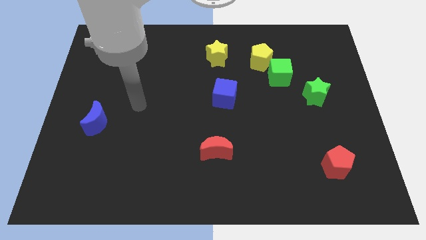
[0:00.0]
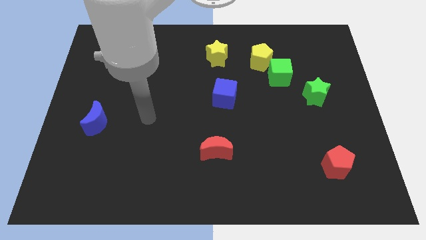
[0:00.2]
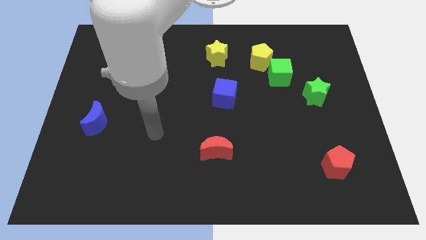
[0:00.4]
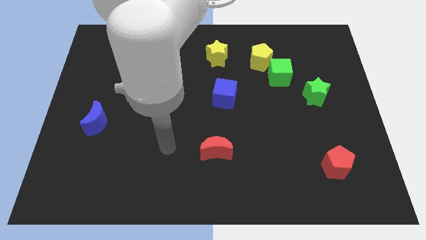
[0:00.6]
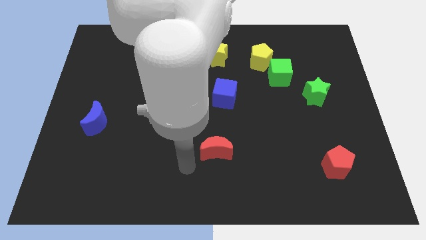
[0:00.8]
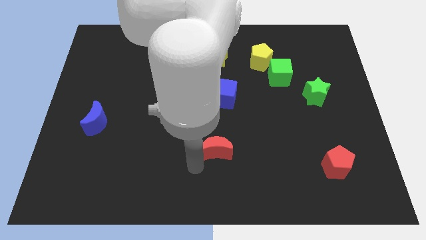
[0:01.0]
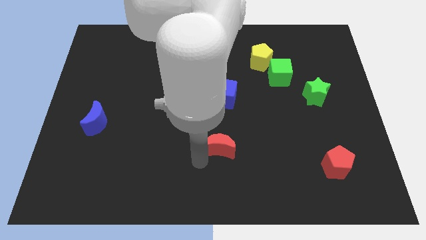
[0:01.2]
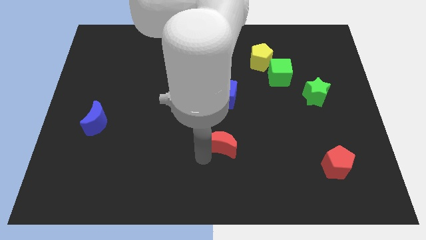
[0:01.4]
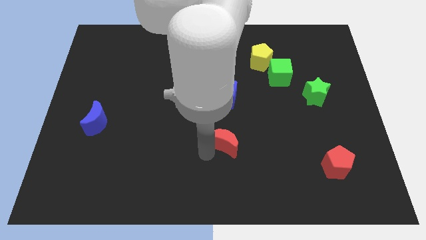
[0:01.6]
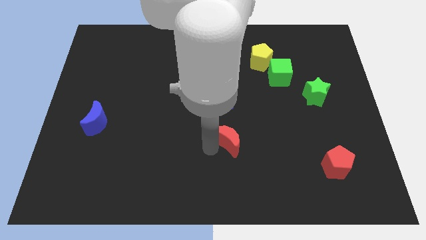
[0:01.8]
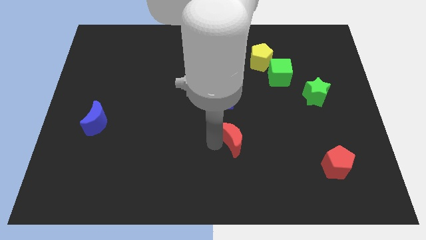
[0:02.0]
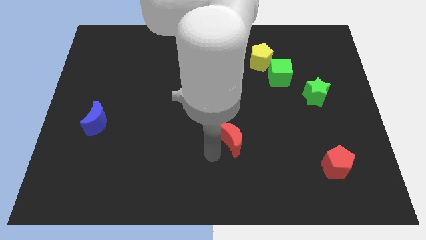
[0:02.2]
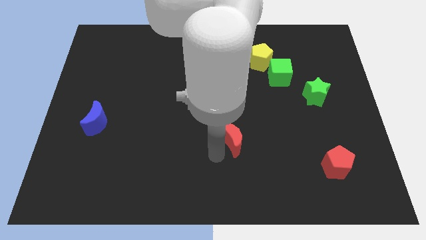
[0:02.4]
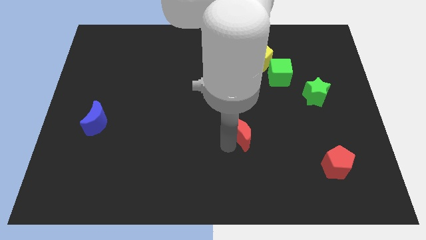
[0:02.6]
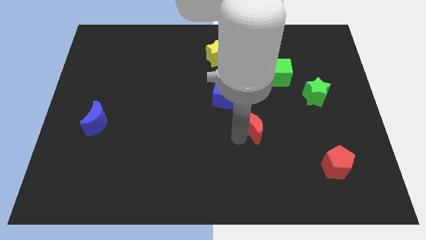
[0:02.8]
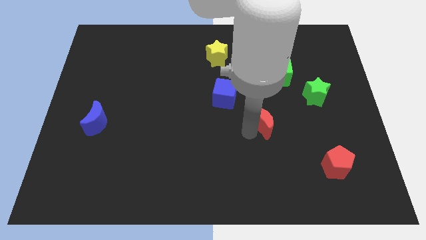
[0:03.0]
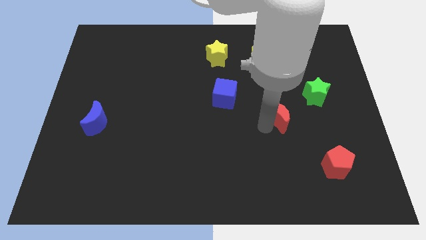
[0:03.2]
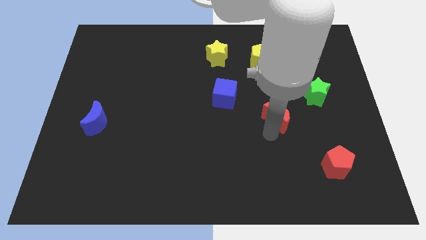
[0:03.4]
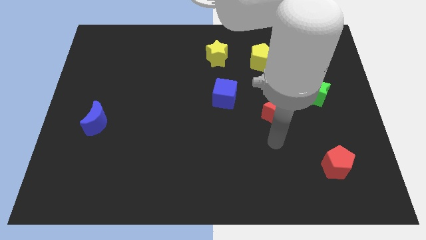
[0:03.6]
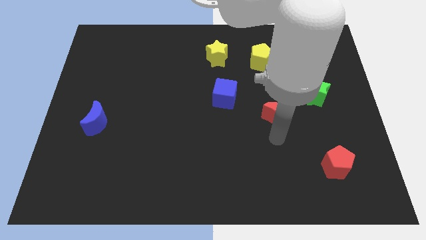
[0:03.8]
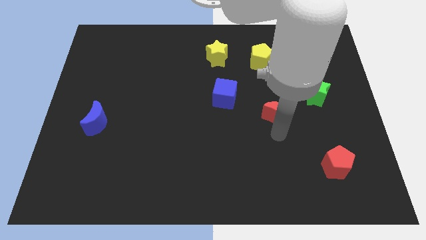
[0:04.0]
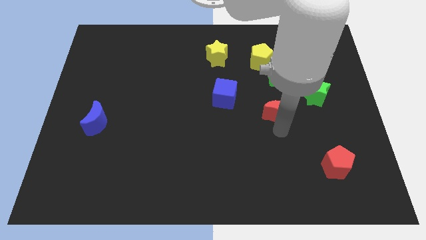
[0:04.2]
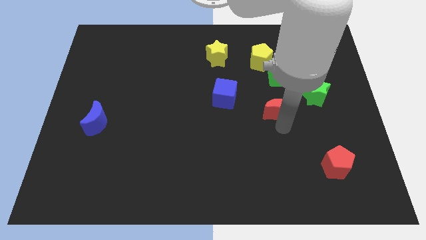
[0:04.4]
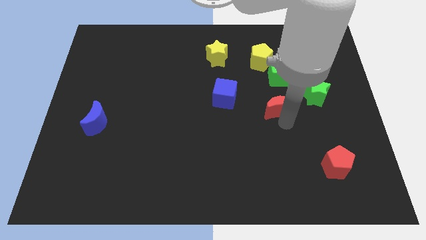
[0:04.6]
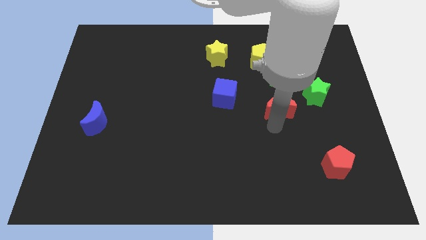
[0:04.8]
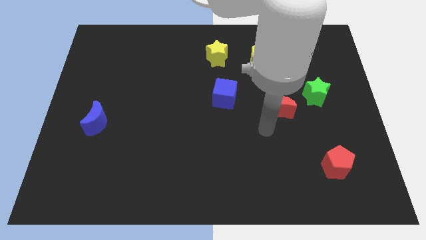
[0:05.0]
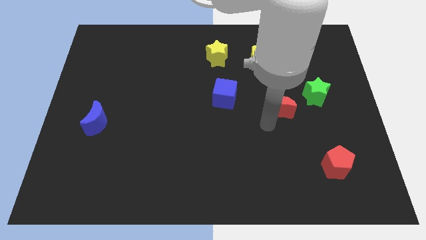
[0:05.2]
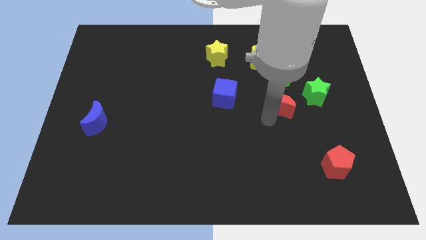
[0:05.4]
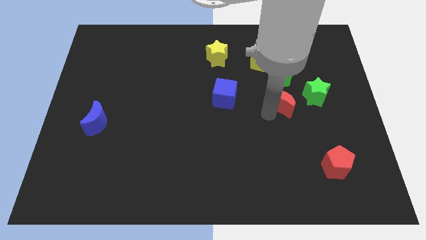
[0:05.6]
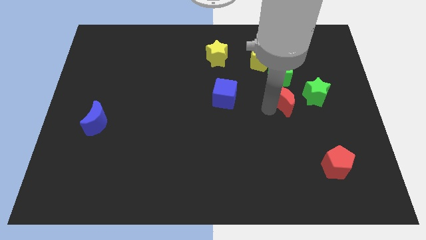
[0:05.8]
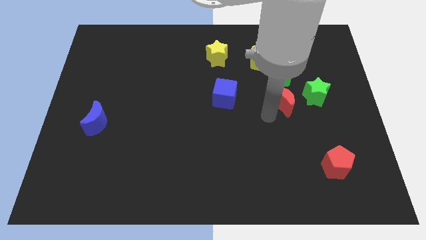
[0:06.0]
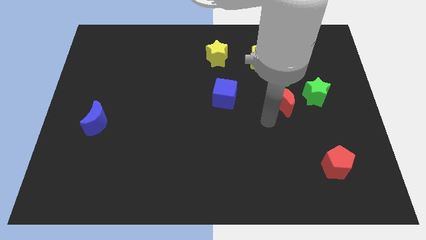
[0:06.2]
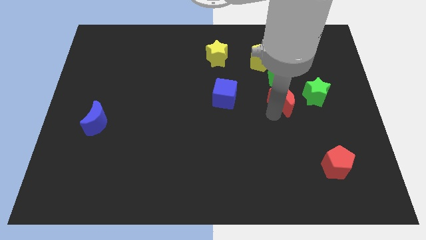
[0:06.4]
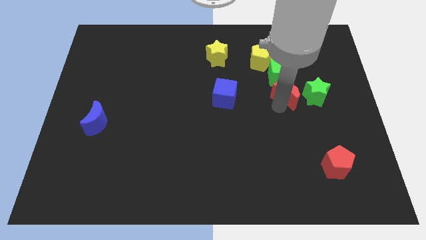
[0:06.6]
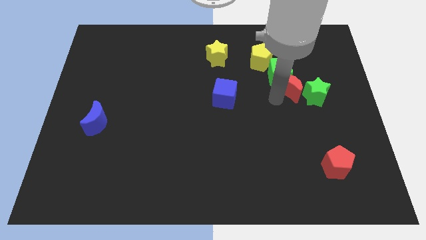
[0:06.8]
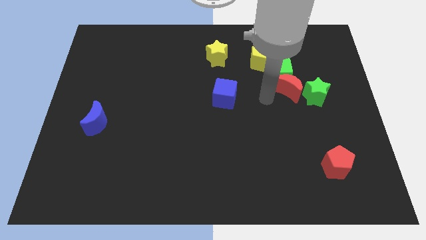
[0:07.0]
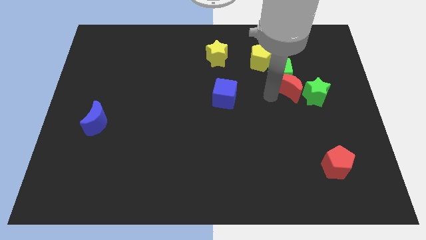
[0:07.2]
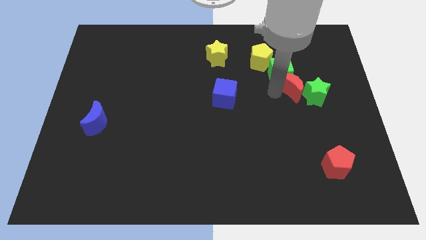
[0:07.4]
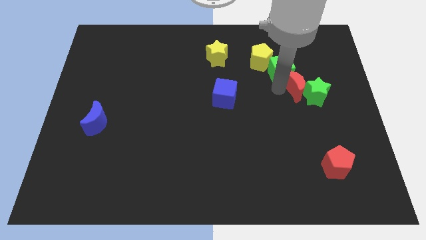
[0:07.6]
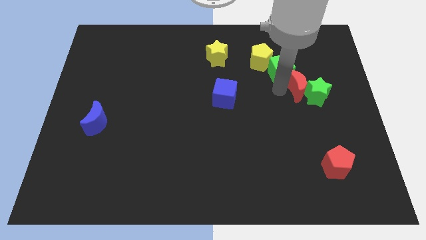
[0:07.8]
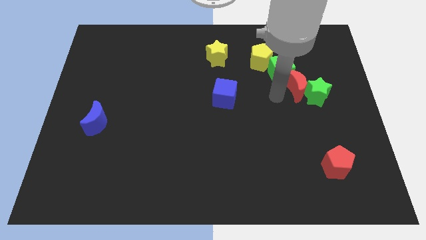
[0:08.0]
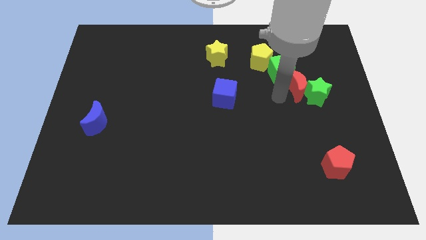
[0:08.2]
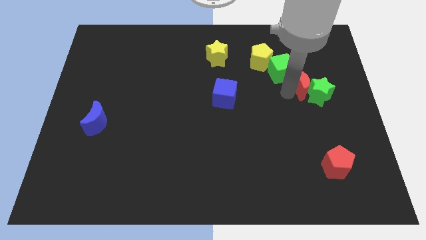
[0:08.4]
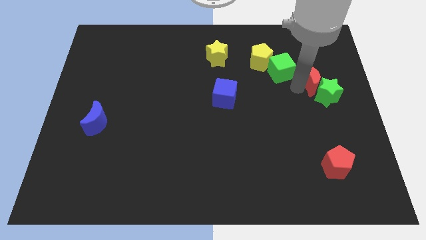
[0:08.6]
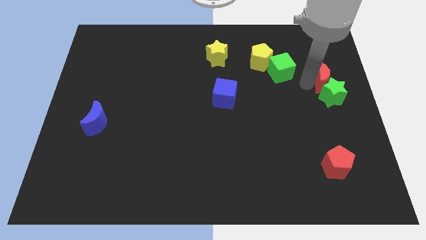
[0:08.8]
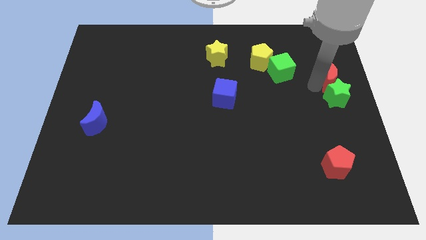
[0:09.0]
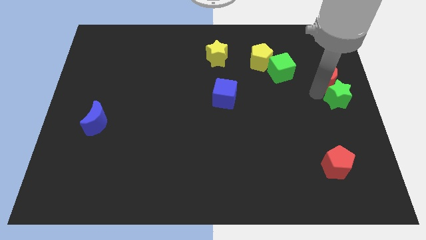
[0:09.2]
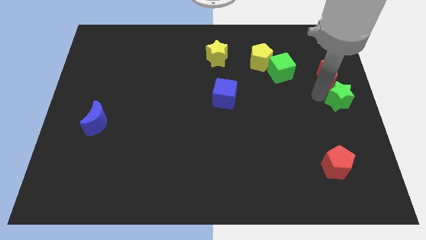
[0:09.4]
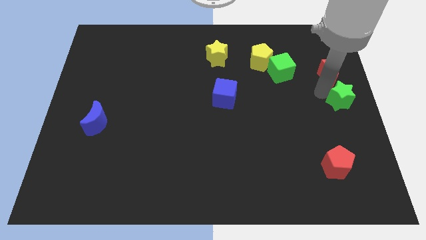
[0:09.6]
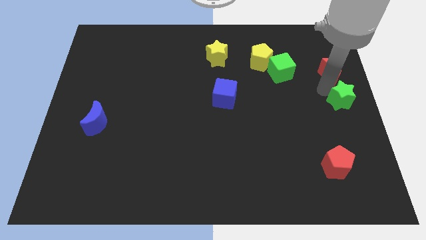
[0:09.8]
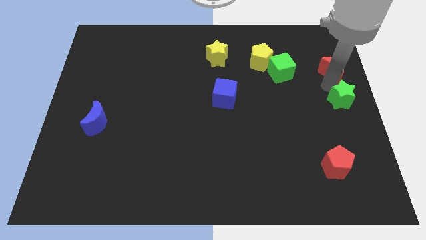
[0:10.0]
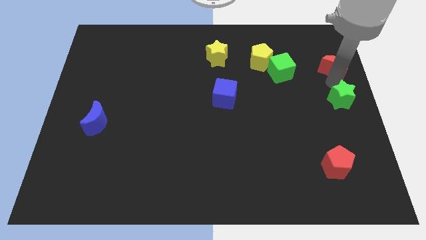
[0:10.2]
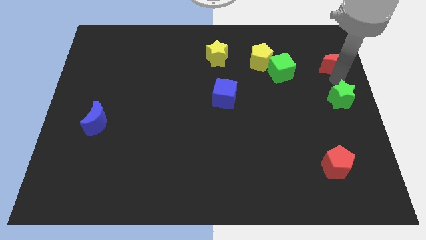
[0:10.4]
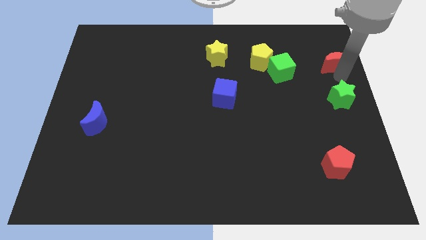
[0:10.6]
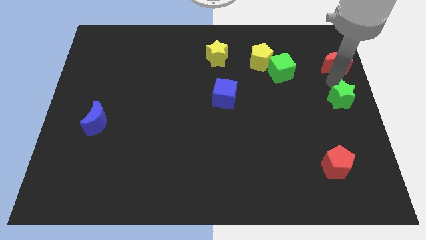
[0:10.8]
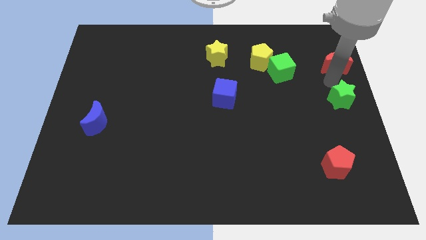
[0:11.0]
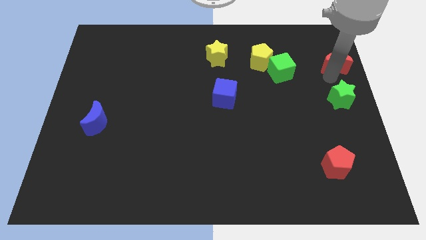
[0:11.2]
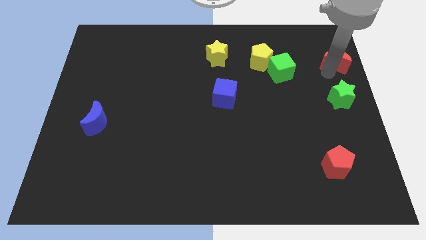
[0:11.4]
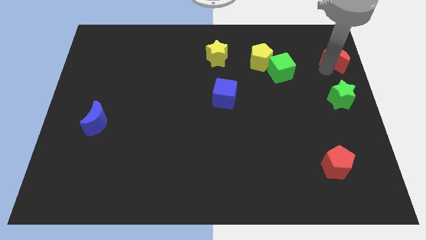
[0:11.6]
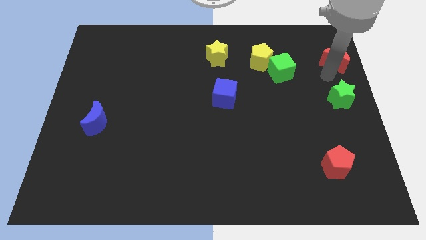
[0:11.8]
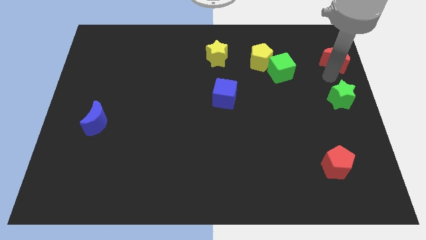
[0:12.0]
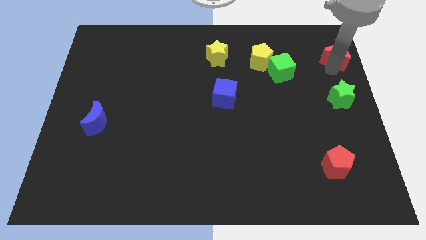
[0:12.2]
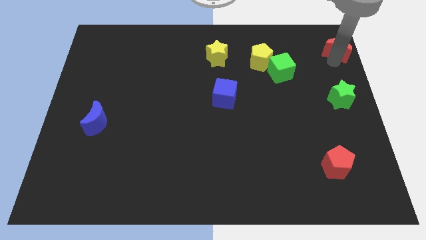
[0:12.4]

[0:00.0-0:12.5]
move the red moon to the top right corner
